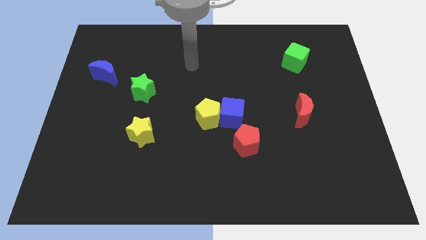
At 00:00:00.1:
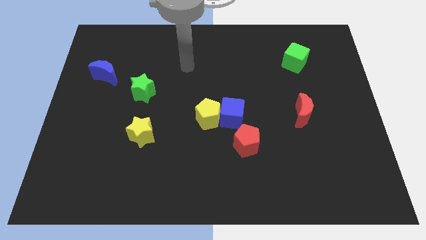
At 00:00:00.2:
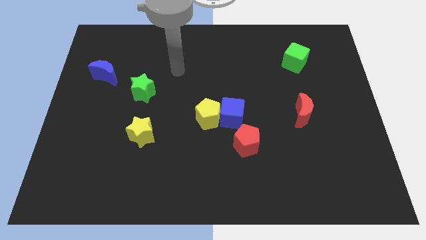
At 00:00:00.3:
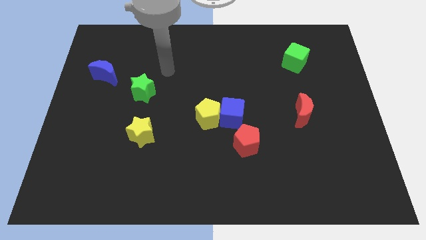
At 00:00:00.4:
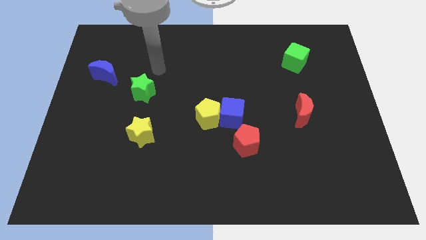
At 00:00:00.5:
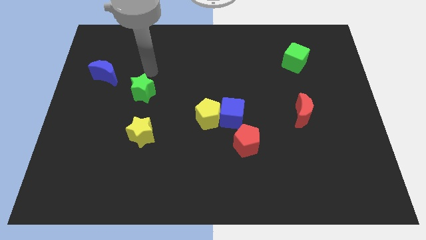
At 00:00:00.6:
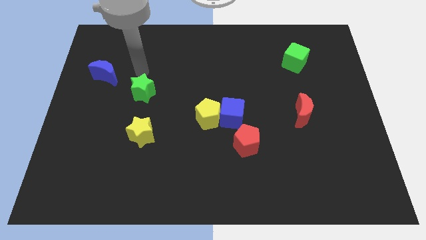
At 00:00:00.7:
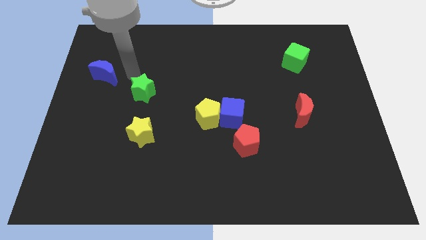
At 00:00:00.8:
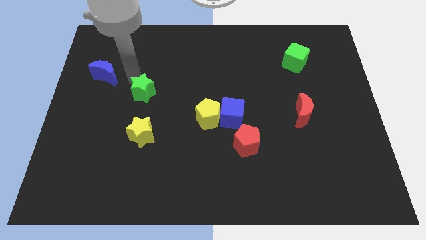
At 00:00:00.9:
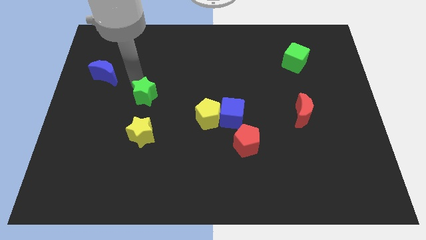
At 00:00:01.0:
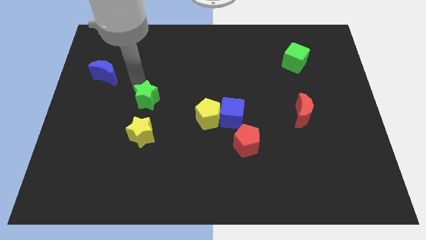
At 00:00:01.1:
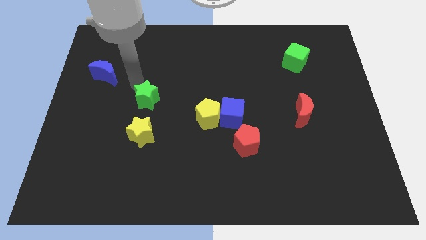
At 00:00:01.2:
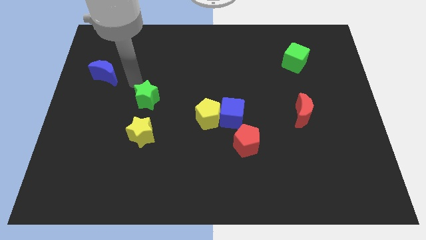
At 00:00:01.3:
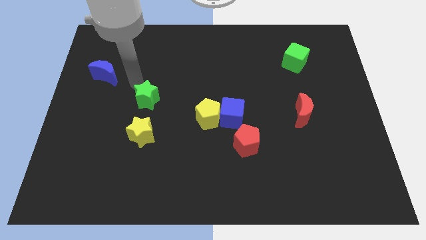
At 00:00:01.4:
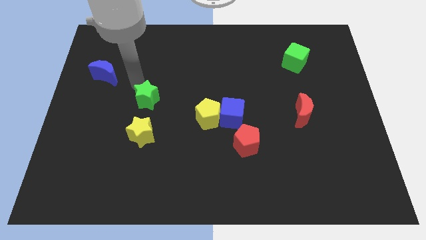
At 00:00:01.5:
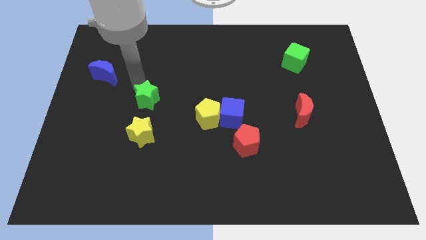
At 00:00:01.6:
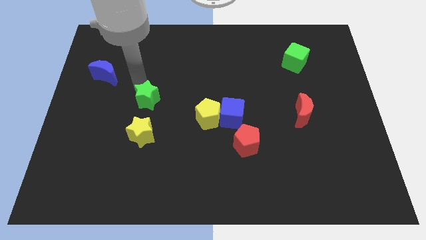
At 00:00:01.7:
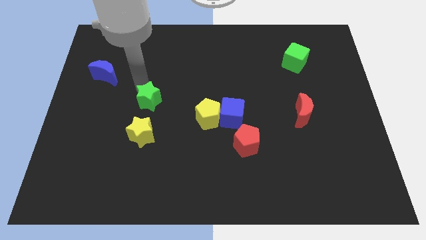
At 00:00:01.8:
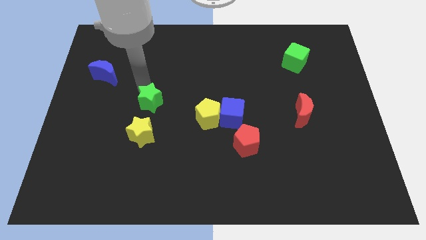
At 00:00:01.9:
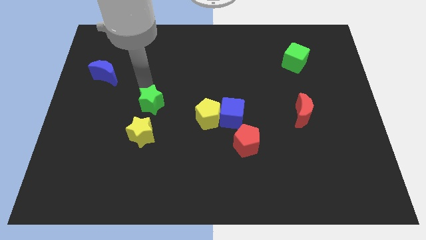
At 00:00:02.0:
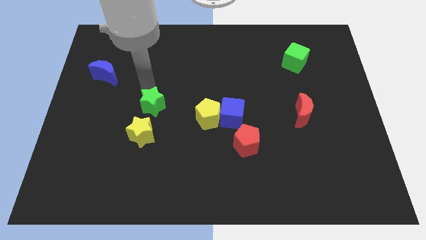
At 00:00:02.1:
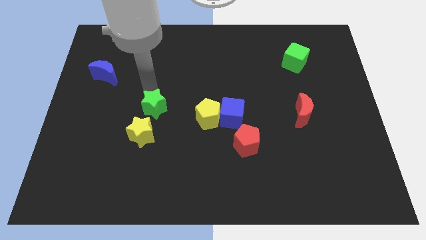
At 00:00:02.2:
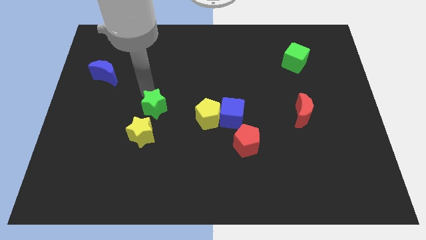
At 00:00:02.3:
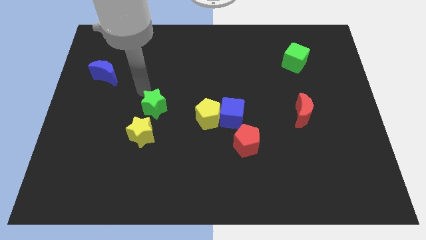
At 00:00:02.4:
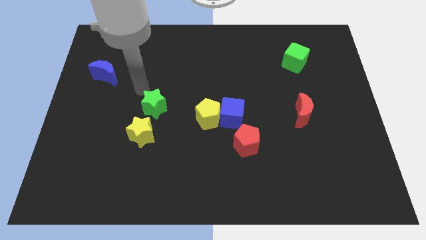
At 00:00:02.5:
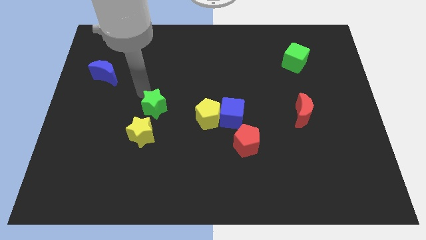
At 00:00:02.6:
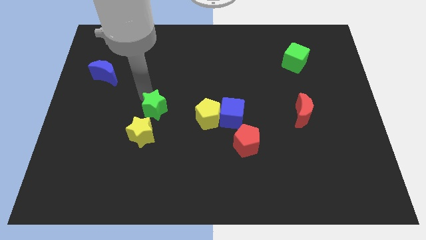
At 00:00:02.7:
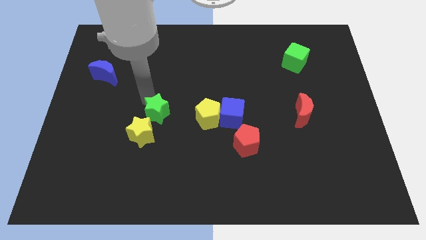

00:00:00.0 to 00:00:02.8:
push the green star somewhat downwards and then to the right

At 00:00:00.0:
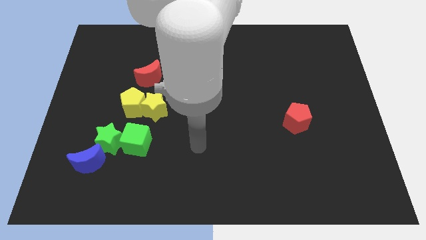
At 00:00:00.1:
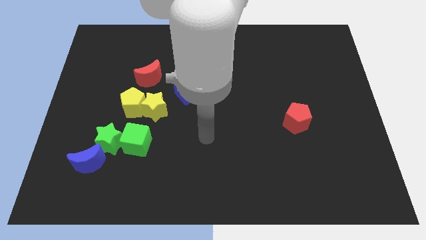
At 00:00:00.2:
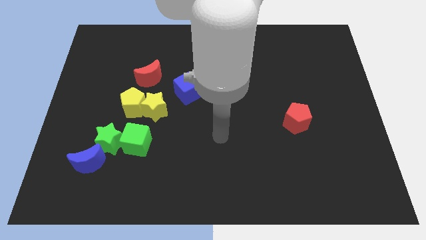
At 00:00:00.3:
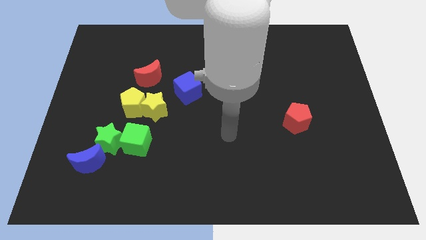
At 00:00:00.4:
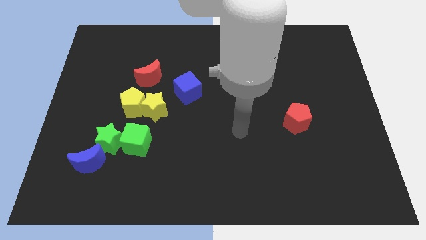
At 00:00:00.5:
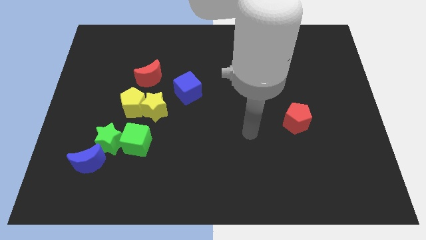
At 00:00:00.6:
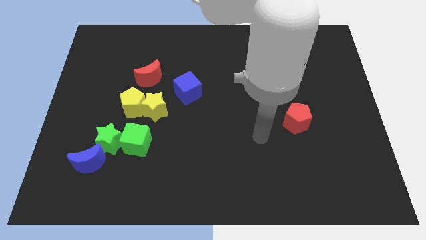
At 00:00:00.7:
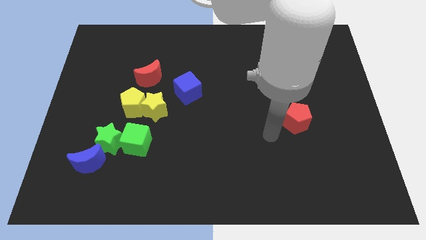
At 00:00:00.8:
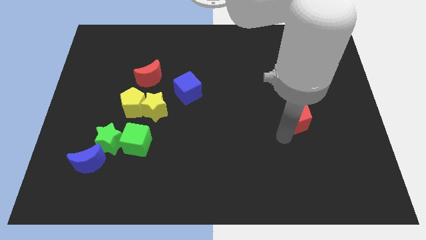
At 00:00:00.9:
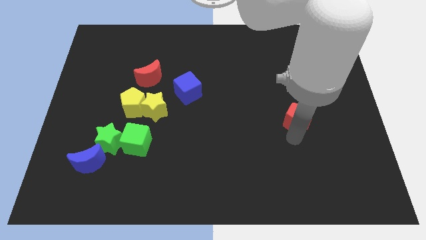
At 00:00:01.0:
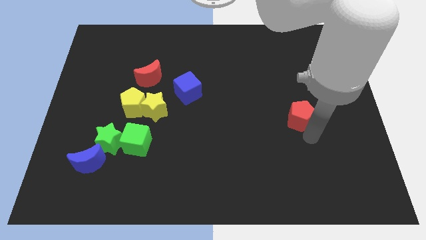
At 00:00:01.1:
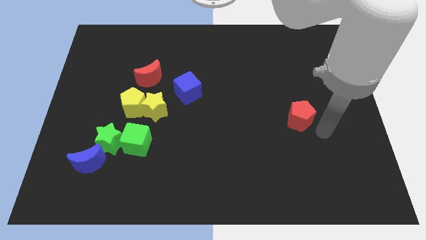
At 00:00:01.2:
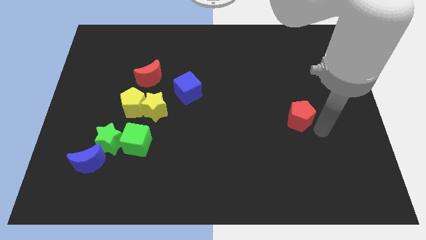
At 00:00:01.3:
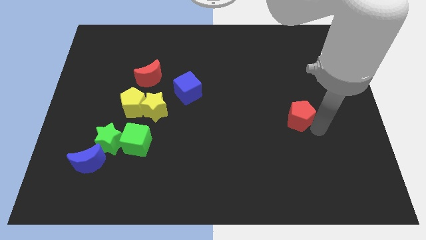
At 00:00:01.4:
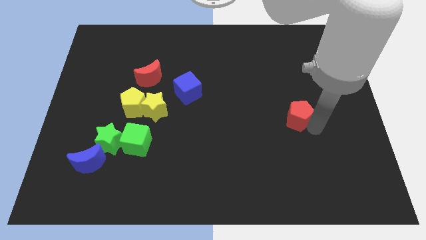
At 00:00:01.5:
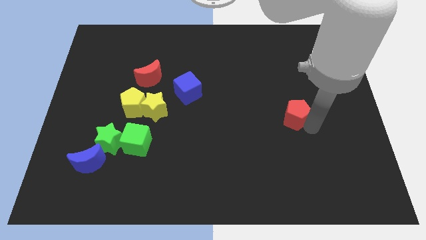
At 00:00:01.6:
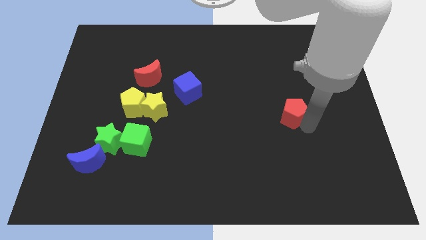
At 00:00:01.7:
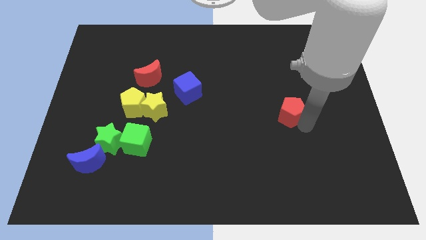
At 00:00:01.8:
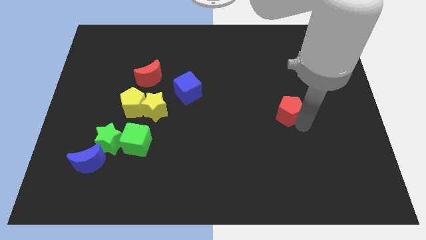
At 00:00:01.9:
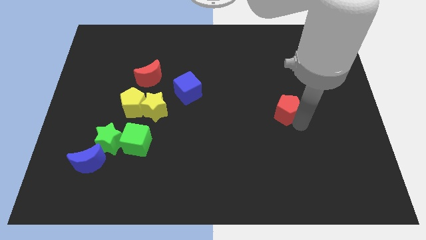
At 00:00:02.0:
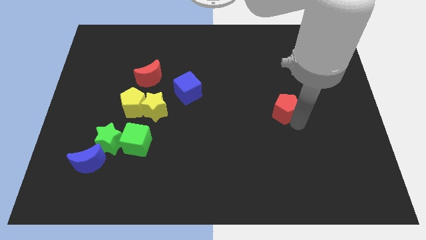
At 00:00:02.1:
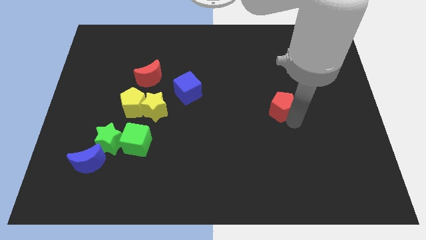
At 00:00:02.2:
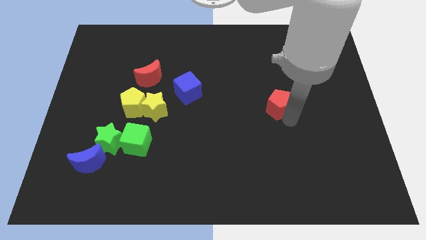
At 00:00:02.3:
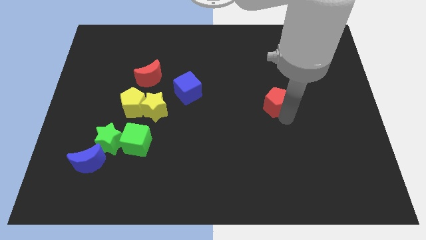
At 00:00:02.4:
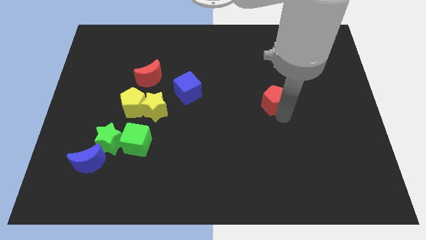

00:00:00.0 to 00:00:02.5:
slightly move the red pentagon up and to the left

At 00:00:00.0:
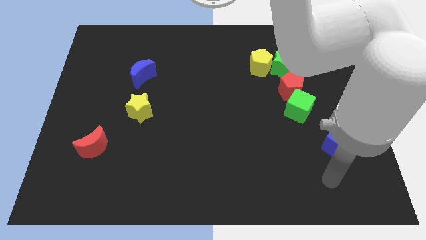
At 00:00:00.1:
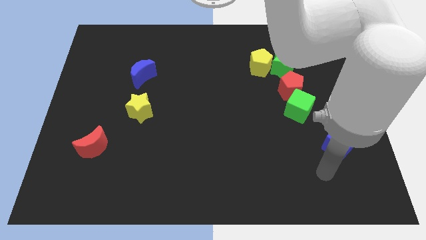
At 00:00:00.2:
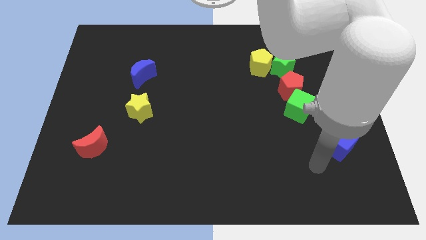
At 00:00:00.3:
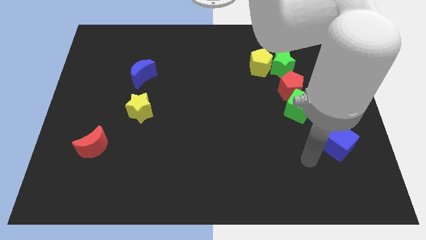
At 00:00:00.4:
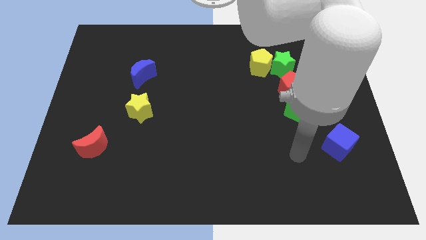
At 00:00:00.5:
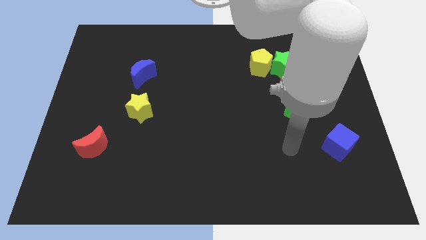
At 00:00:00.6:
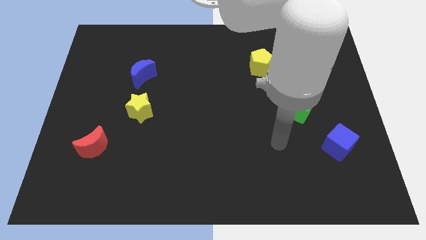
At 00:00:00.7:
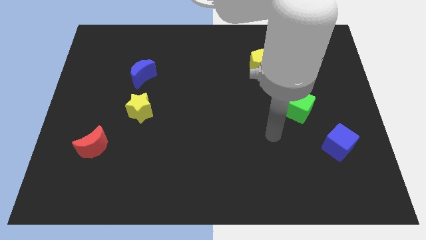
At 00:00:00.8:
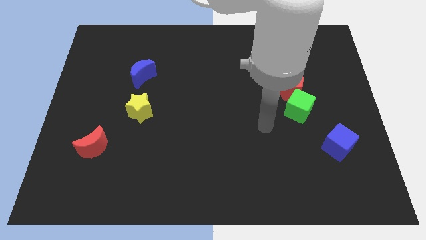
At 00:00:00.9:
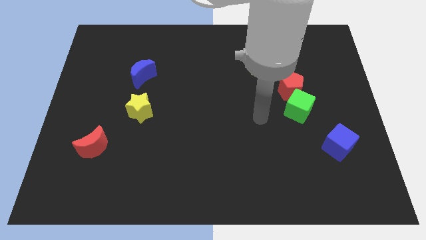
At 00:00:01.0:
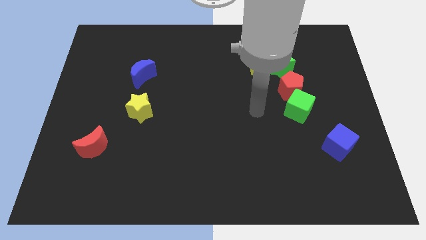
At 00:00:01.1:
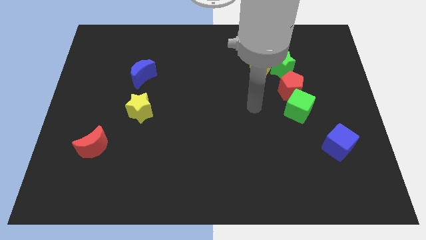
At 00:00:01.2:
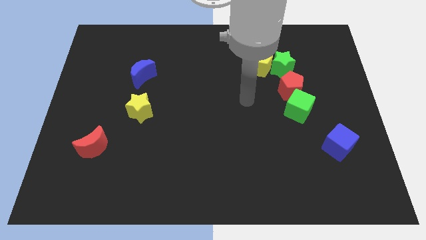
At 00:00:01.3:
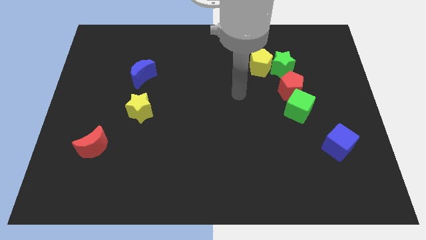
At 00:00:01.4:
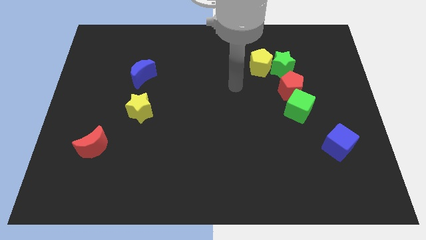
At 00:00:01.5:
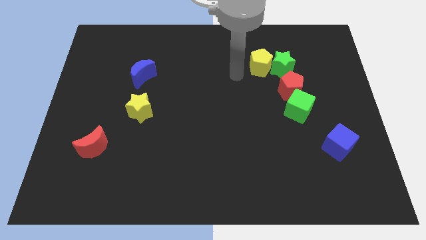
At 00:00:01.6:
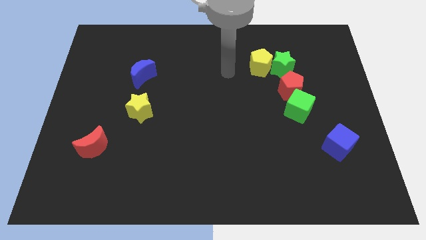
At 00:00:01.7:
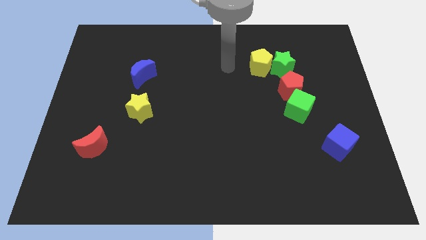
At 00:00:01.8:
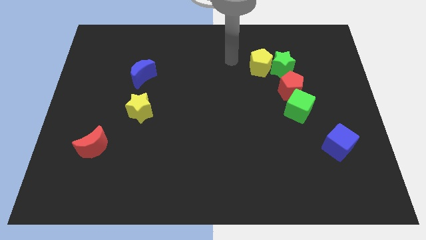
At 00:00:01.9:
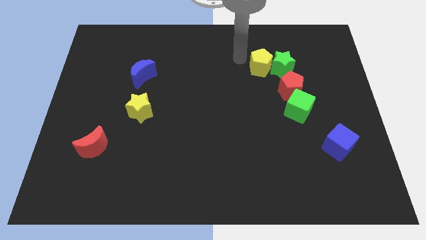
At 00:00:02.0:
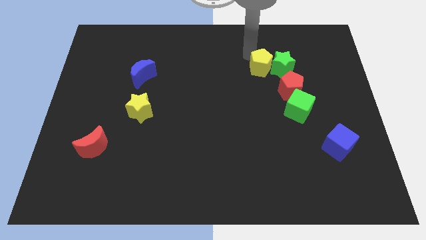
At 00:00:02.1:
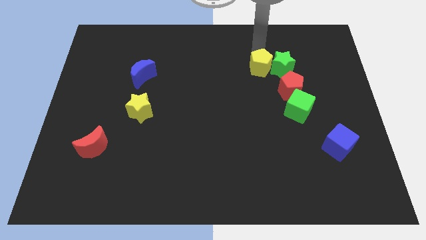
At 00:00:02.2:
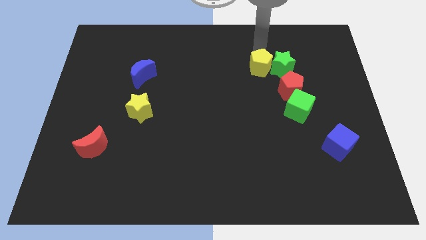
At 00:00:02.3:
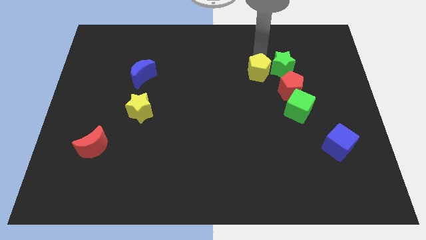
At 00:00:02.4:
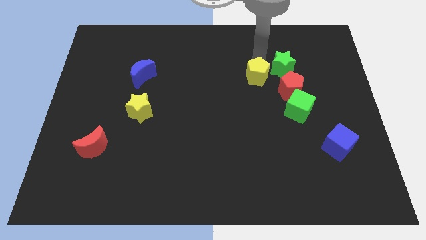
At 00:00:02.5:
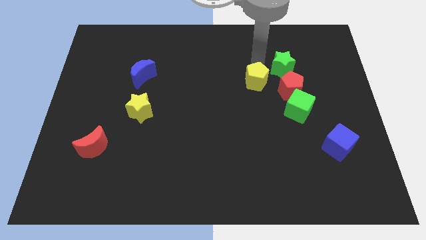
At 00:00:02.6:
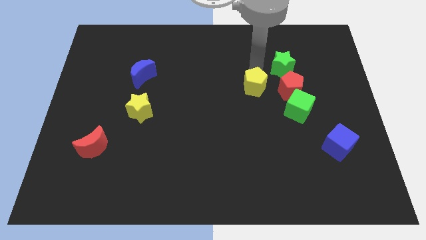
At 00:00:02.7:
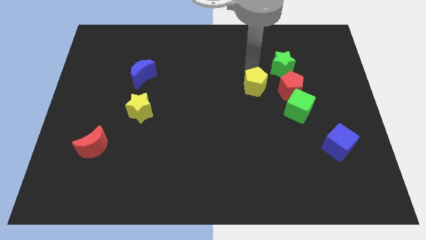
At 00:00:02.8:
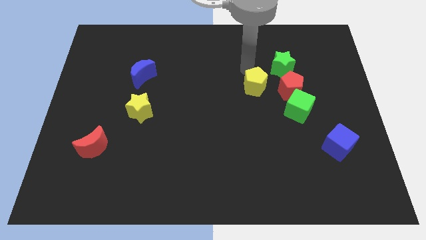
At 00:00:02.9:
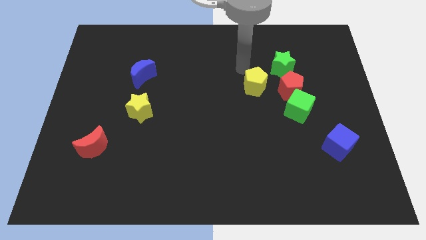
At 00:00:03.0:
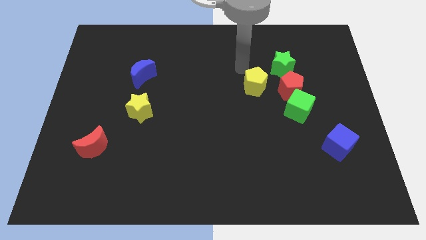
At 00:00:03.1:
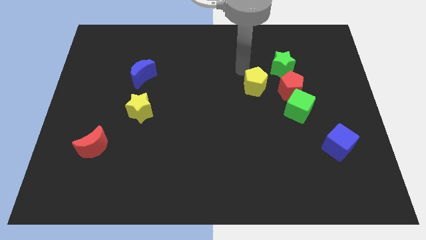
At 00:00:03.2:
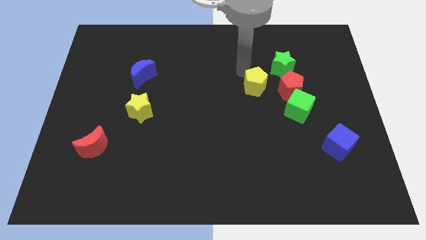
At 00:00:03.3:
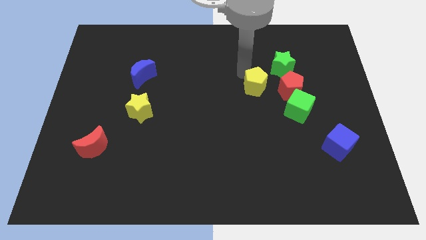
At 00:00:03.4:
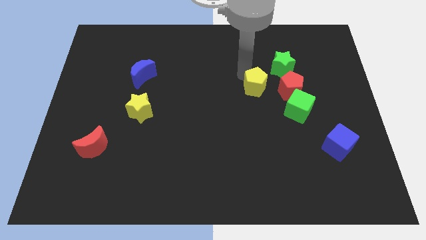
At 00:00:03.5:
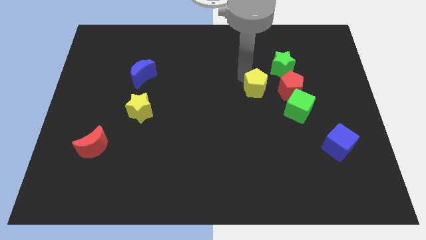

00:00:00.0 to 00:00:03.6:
slightly push the yellow pentagon downwards
